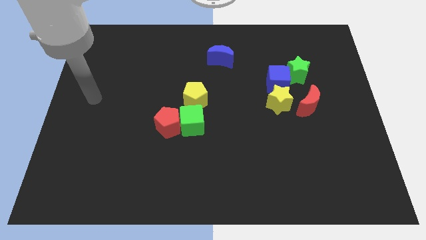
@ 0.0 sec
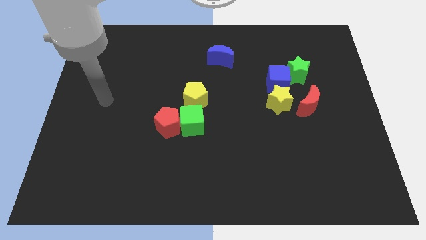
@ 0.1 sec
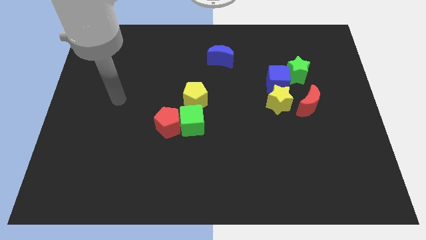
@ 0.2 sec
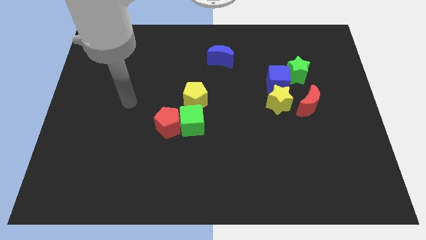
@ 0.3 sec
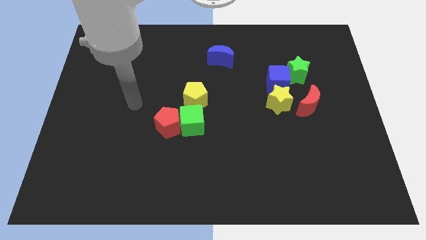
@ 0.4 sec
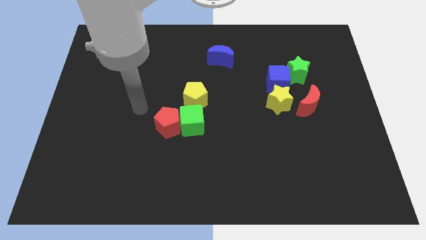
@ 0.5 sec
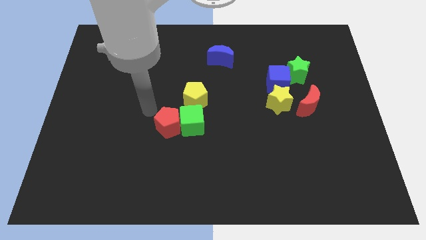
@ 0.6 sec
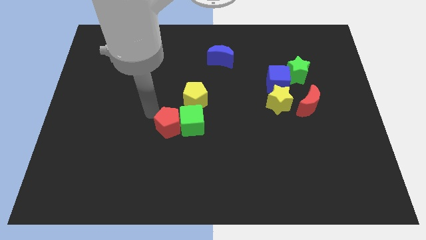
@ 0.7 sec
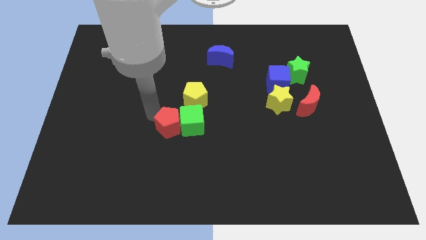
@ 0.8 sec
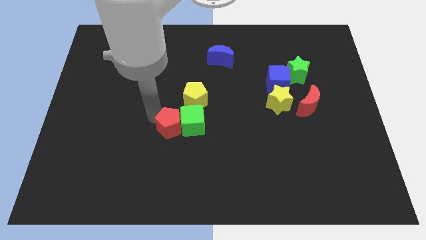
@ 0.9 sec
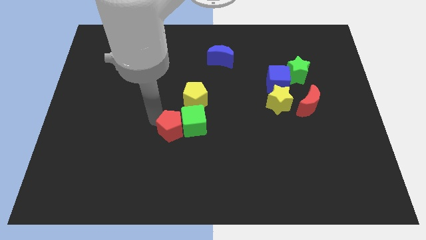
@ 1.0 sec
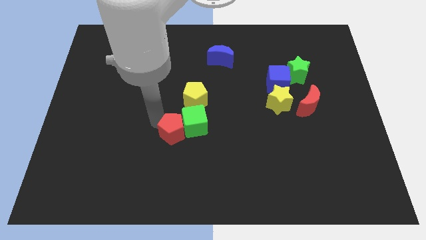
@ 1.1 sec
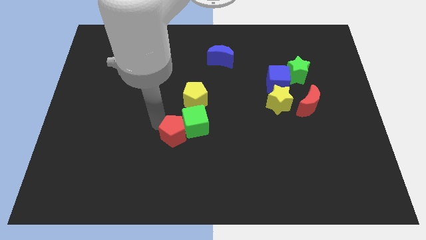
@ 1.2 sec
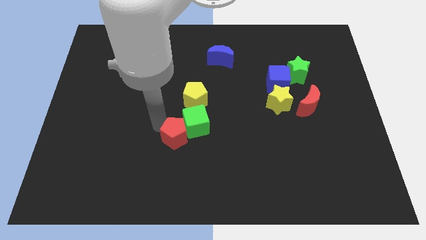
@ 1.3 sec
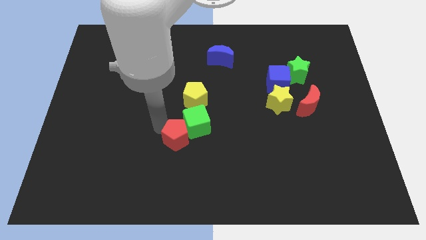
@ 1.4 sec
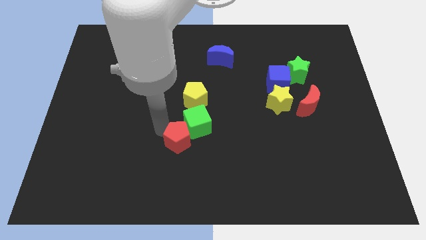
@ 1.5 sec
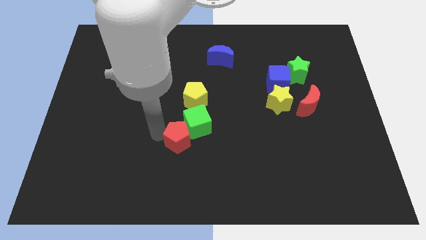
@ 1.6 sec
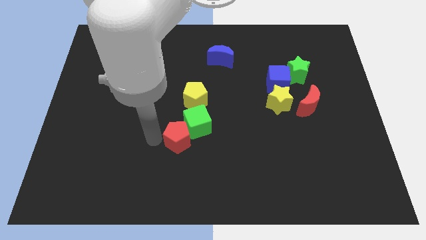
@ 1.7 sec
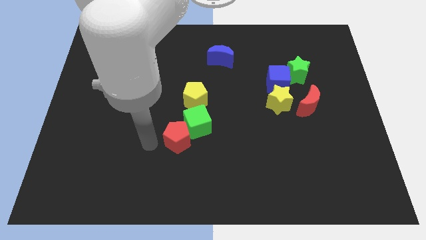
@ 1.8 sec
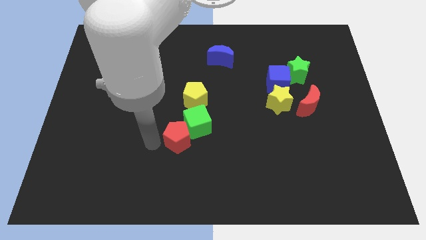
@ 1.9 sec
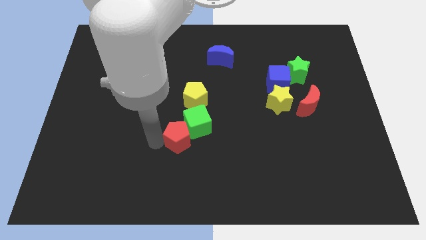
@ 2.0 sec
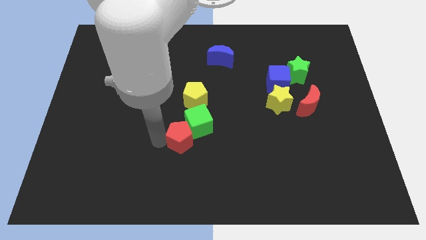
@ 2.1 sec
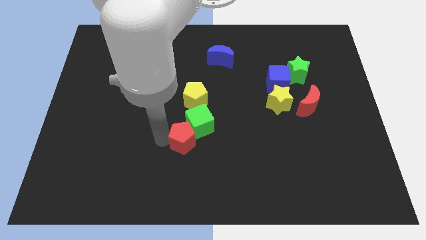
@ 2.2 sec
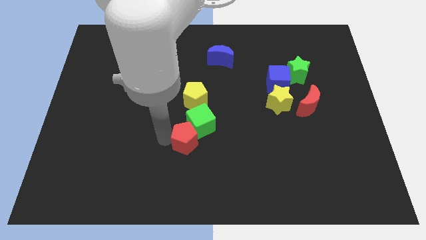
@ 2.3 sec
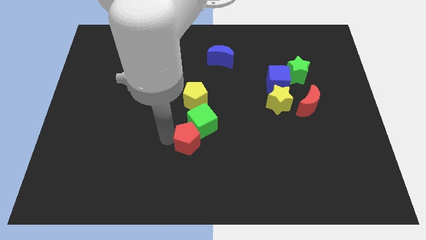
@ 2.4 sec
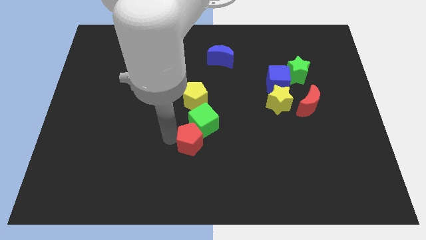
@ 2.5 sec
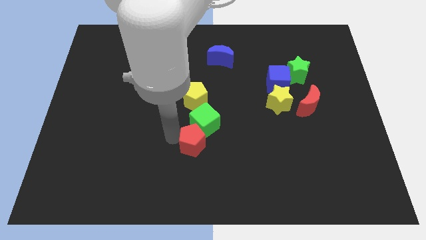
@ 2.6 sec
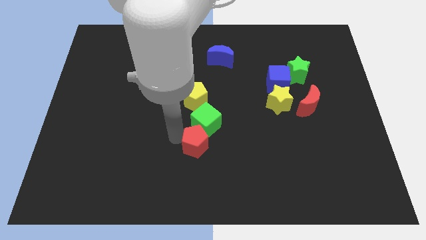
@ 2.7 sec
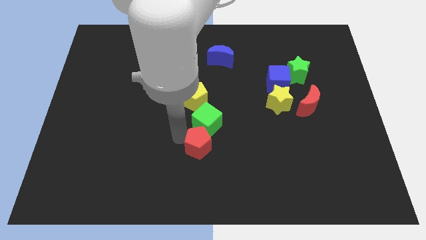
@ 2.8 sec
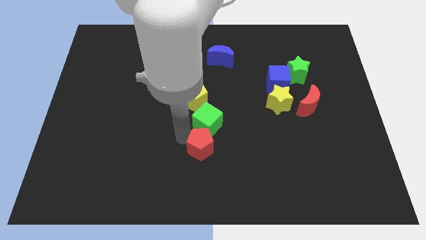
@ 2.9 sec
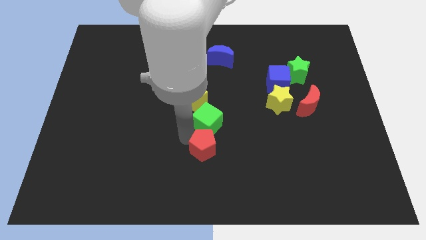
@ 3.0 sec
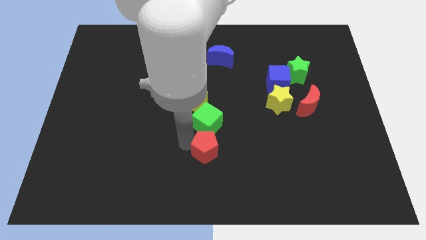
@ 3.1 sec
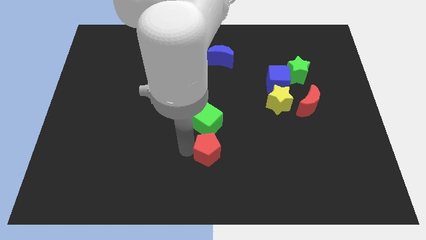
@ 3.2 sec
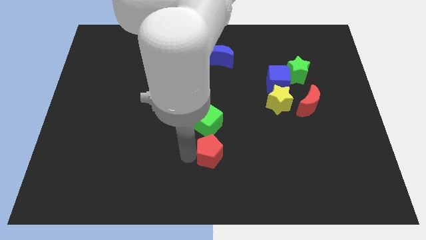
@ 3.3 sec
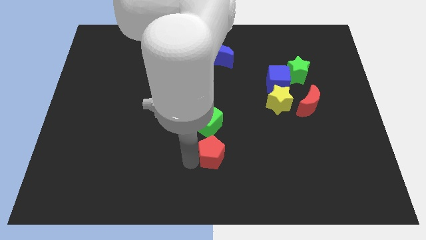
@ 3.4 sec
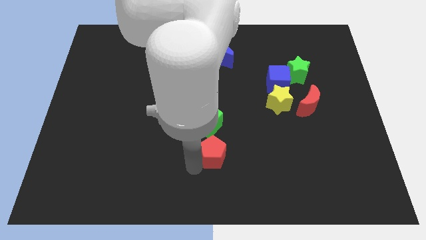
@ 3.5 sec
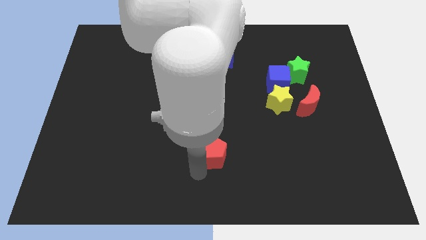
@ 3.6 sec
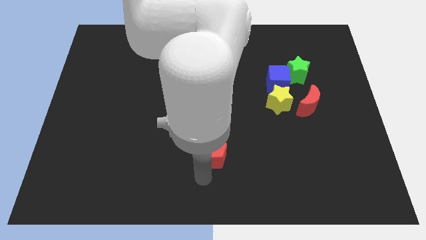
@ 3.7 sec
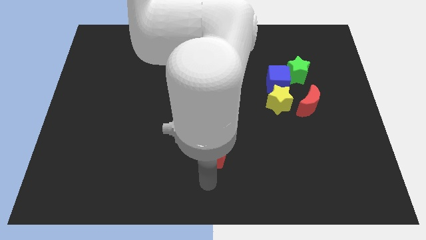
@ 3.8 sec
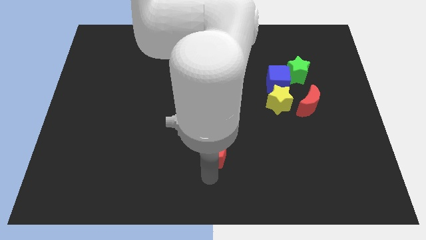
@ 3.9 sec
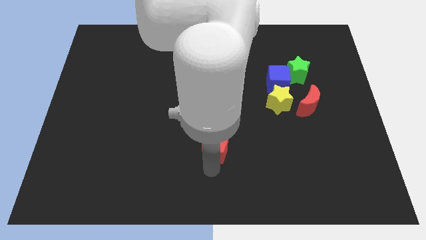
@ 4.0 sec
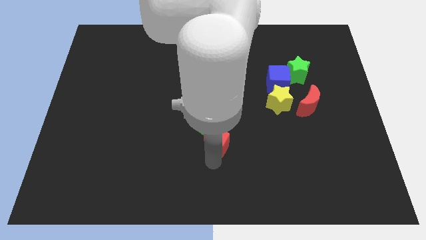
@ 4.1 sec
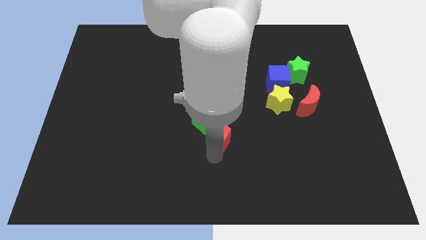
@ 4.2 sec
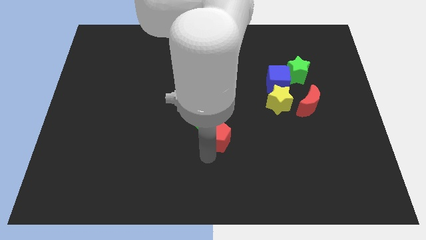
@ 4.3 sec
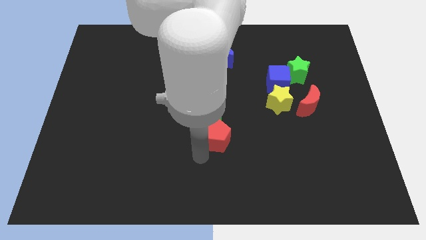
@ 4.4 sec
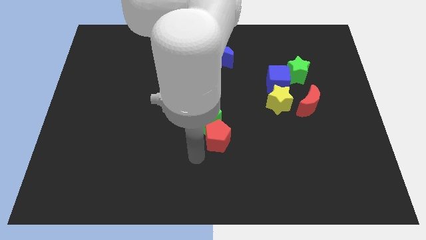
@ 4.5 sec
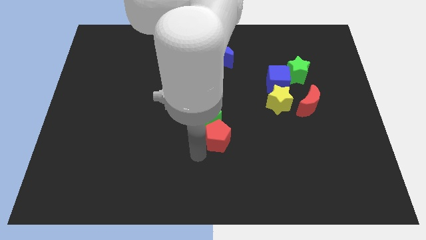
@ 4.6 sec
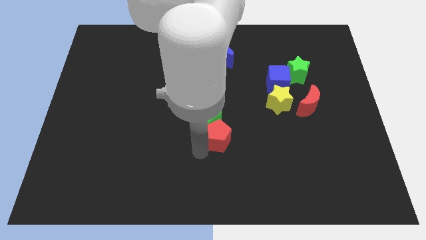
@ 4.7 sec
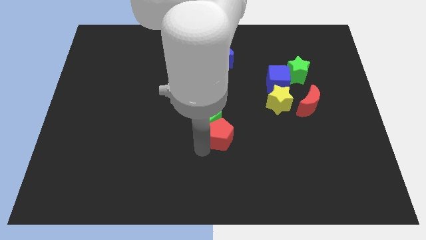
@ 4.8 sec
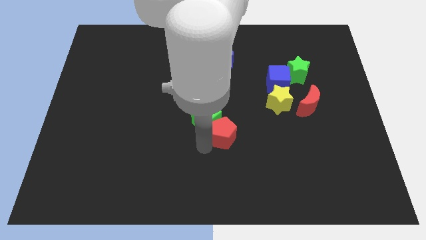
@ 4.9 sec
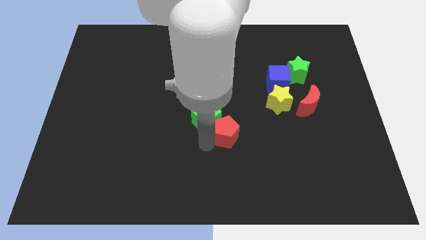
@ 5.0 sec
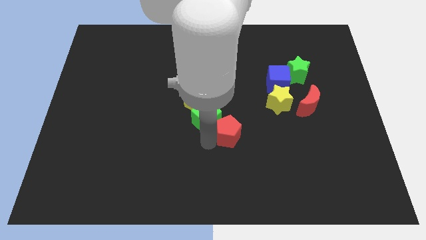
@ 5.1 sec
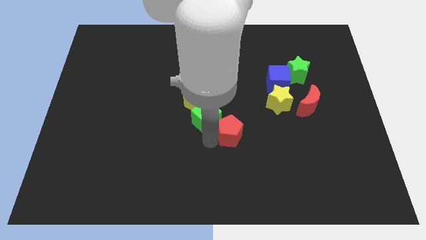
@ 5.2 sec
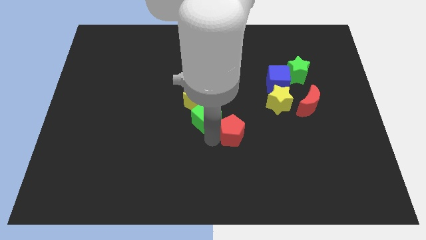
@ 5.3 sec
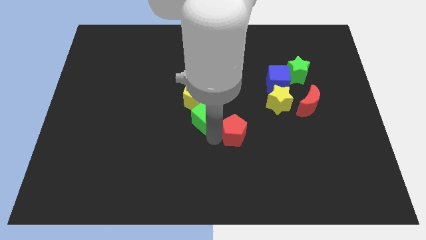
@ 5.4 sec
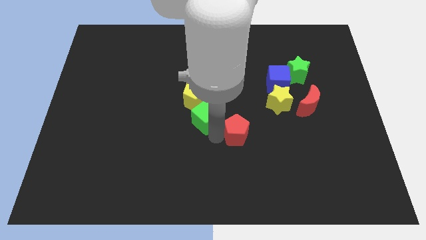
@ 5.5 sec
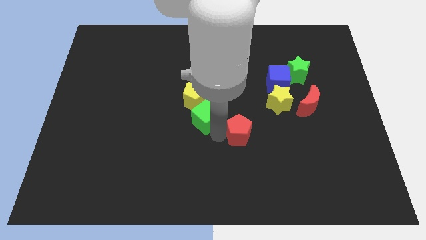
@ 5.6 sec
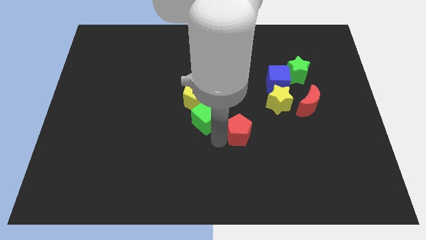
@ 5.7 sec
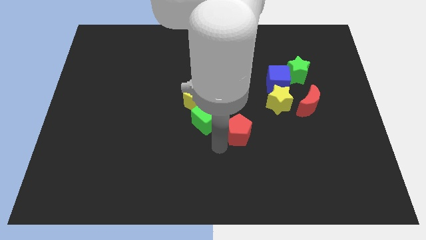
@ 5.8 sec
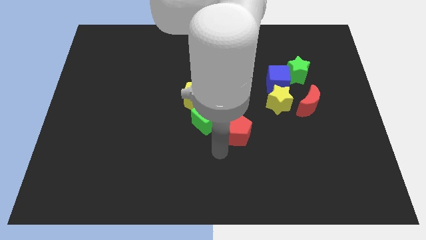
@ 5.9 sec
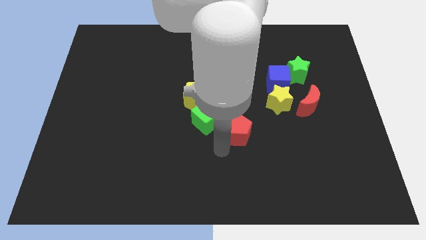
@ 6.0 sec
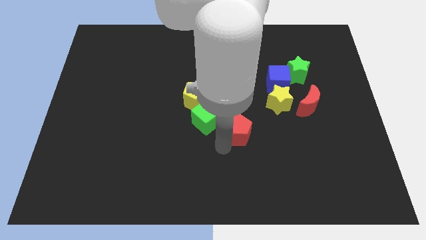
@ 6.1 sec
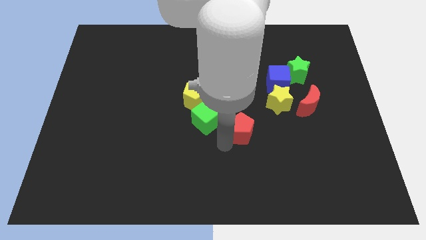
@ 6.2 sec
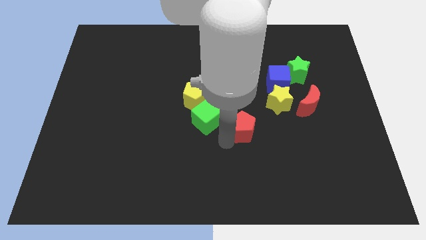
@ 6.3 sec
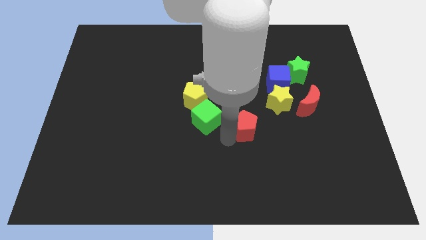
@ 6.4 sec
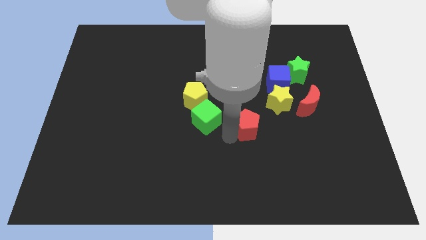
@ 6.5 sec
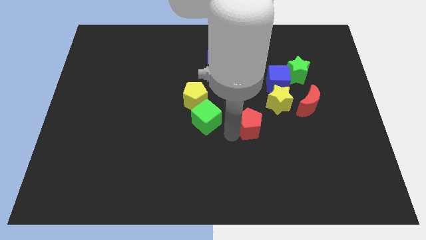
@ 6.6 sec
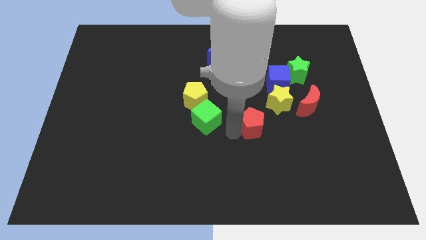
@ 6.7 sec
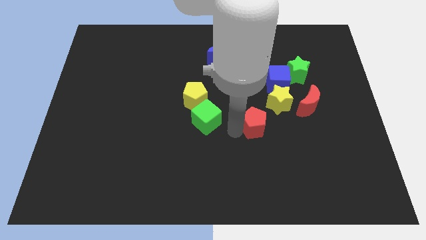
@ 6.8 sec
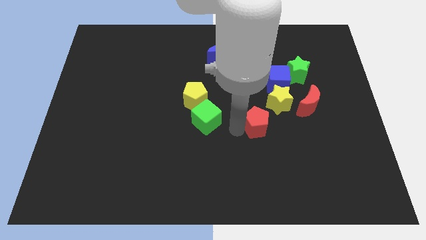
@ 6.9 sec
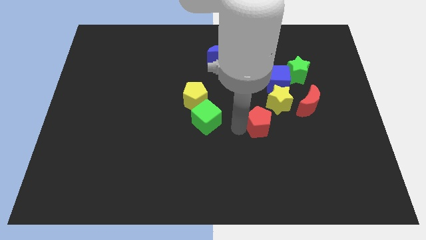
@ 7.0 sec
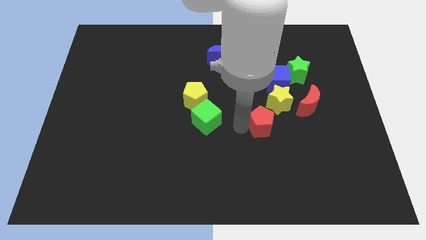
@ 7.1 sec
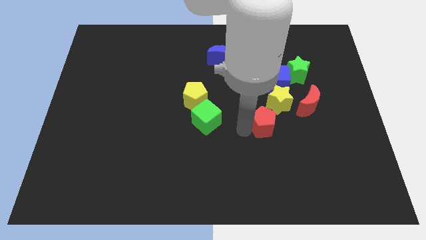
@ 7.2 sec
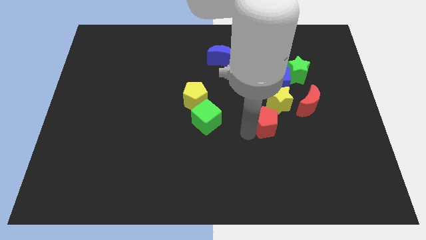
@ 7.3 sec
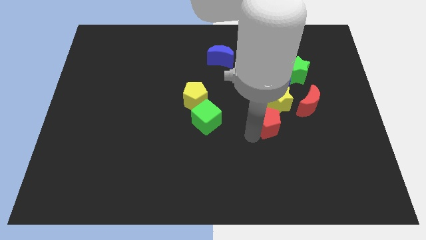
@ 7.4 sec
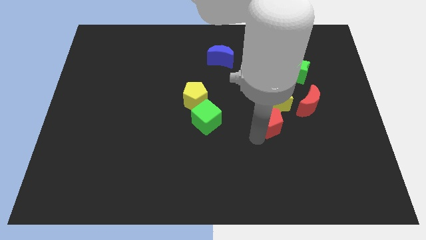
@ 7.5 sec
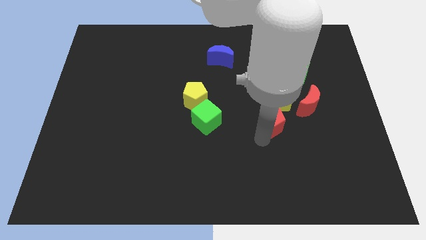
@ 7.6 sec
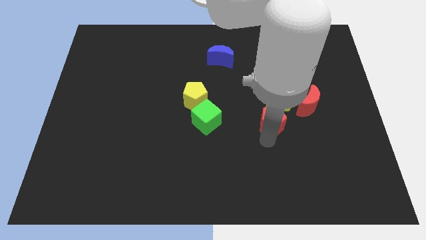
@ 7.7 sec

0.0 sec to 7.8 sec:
slide the red pentagon next to the yellow star
